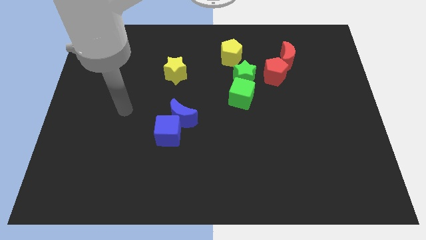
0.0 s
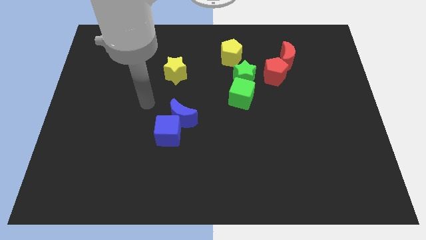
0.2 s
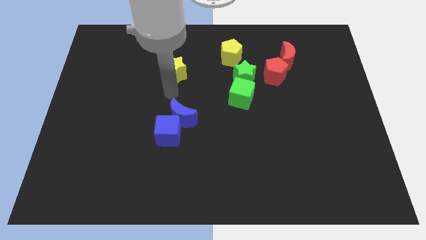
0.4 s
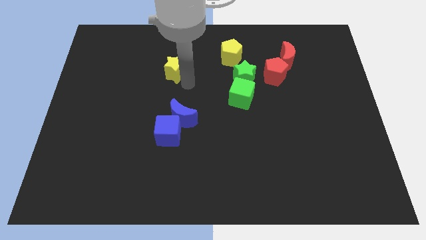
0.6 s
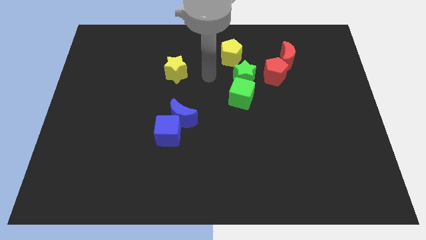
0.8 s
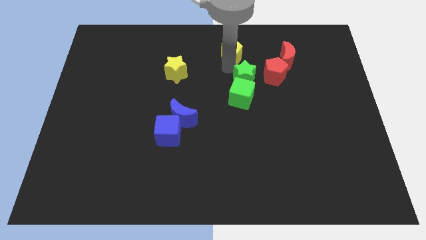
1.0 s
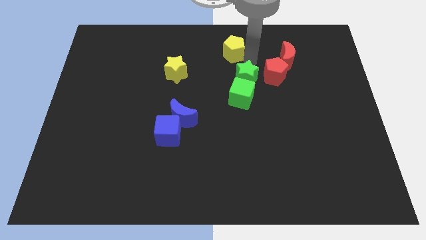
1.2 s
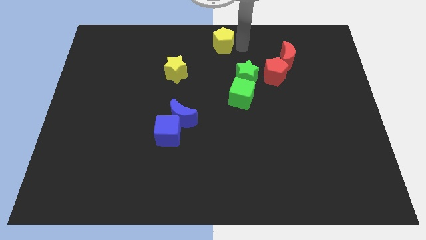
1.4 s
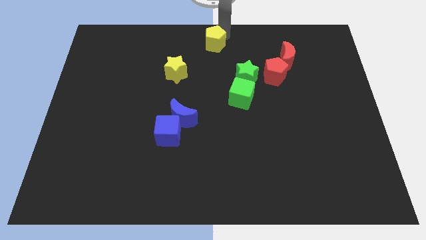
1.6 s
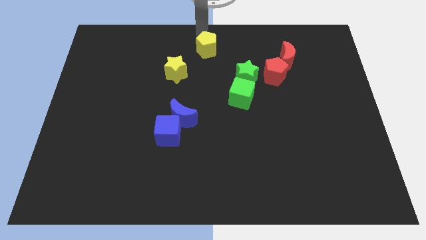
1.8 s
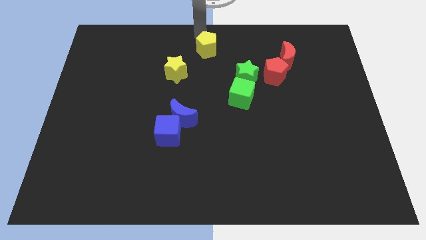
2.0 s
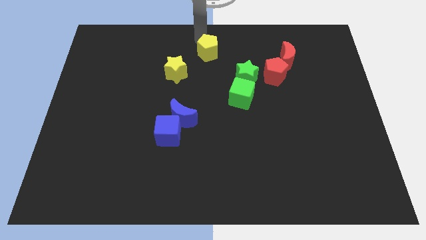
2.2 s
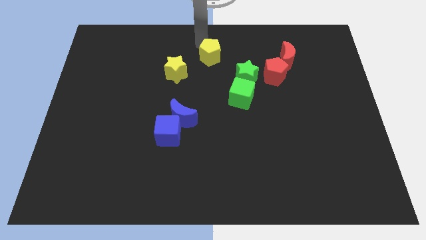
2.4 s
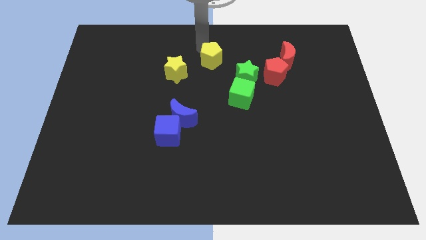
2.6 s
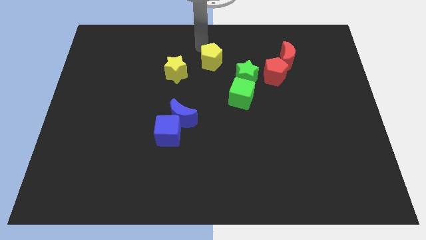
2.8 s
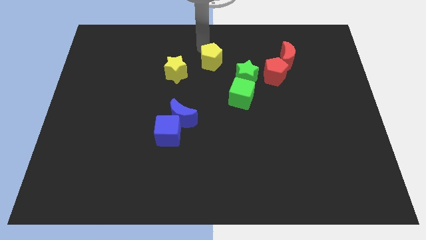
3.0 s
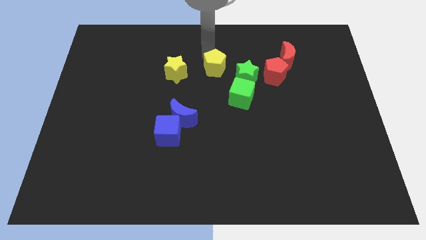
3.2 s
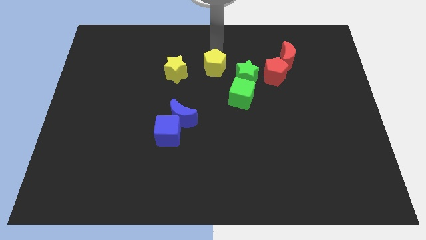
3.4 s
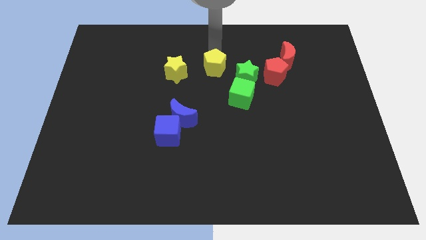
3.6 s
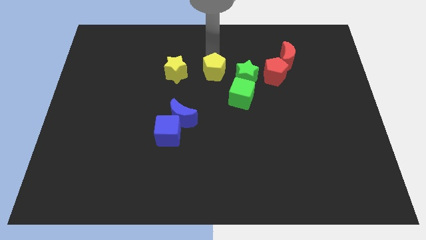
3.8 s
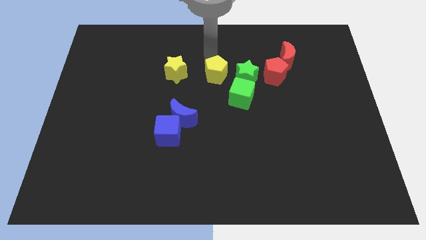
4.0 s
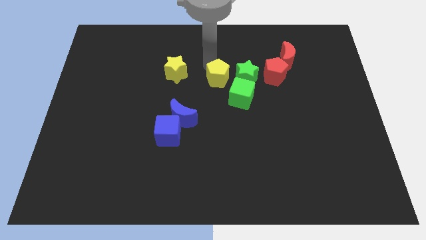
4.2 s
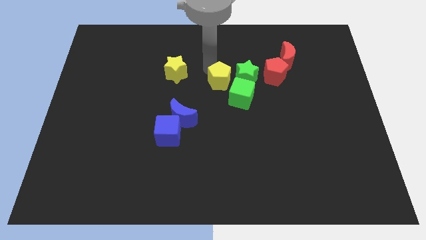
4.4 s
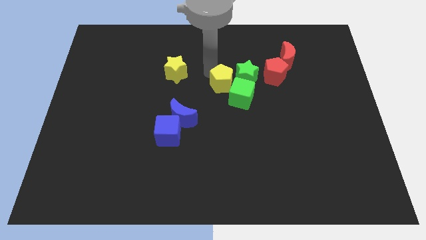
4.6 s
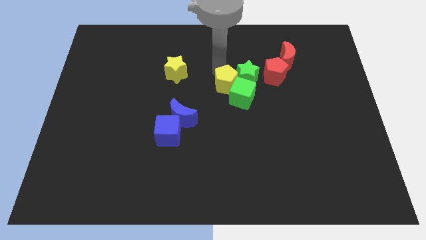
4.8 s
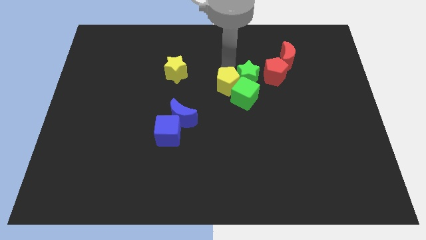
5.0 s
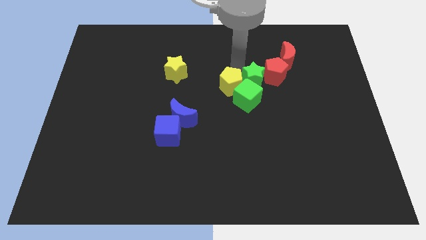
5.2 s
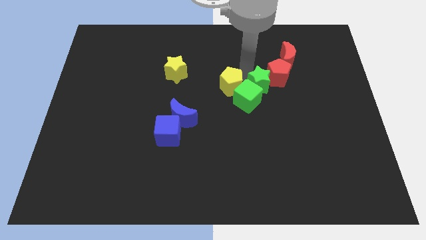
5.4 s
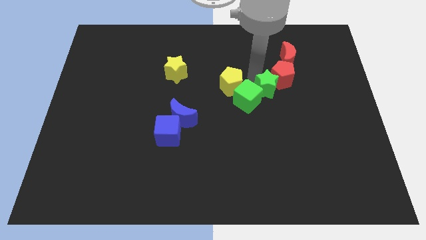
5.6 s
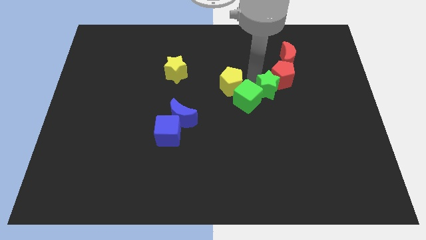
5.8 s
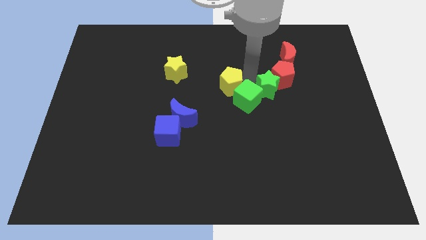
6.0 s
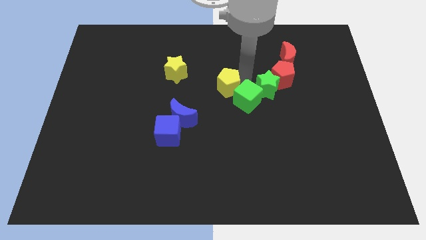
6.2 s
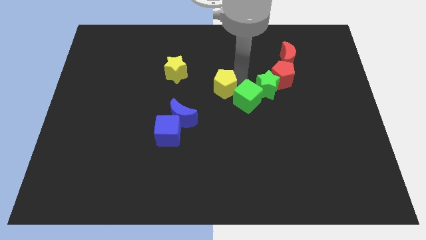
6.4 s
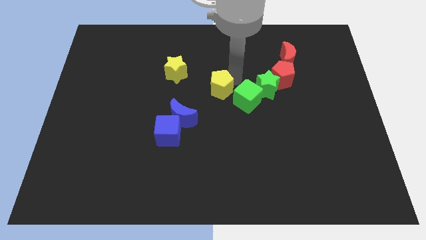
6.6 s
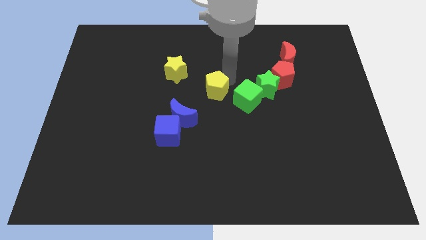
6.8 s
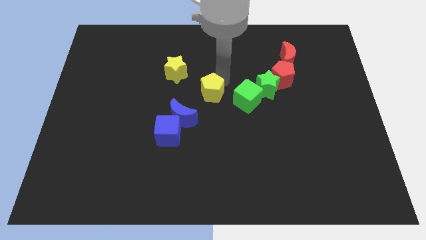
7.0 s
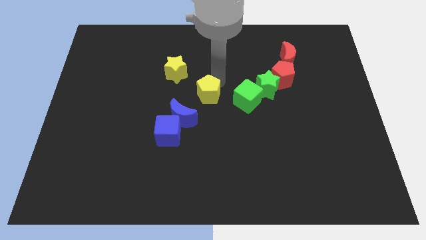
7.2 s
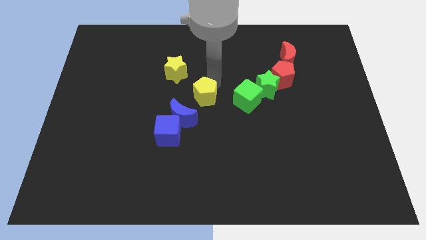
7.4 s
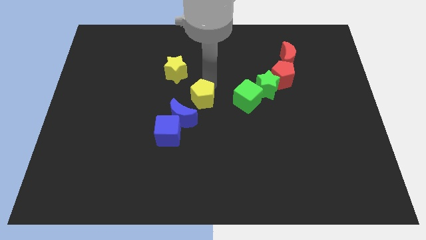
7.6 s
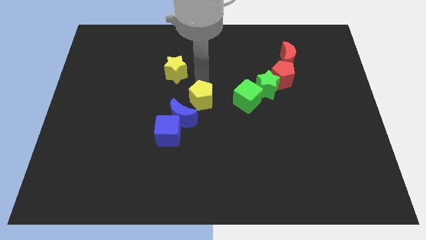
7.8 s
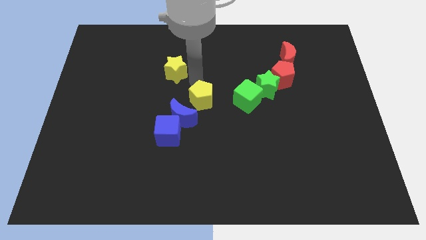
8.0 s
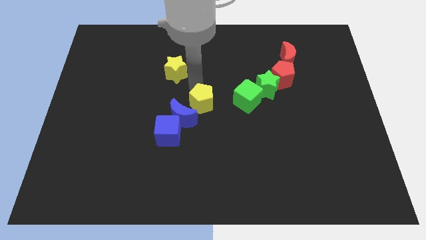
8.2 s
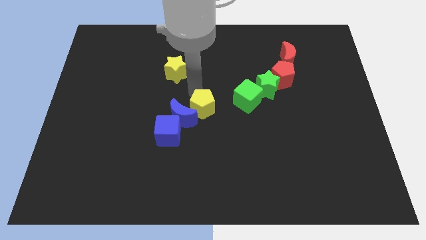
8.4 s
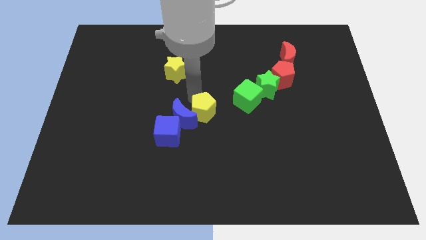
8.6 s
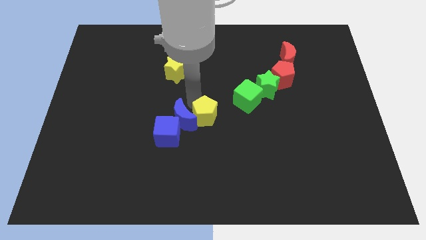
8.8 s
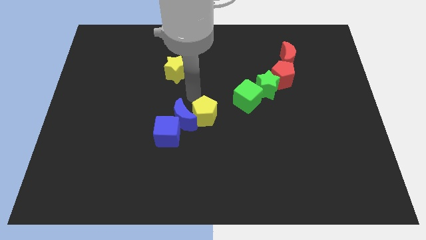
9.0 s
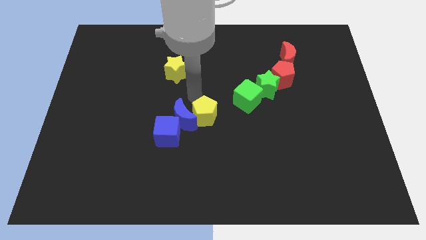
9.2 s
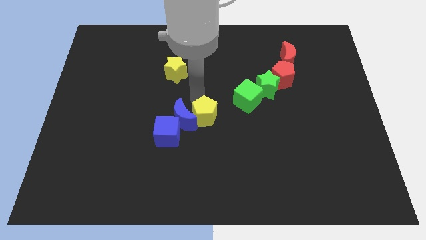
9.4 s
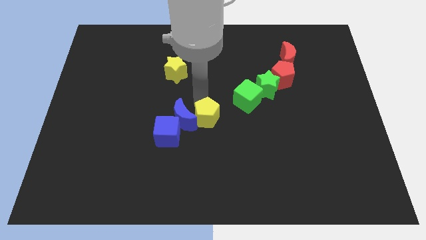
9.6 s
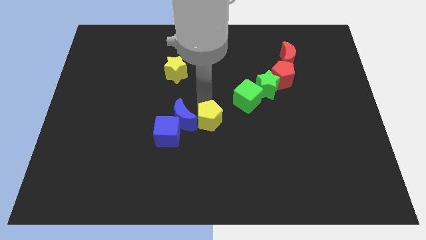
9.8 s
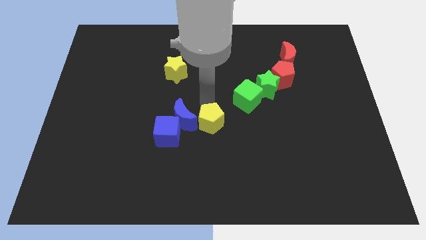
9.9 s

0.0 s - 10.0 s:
move the yellow pentagon downwards

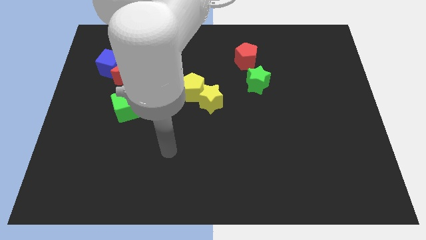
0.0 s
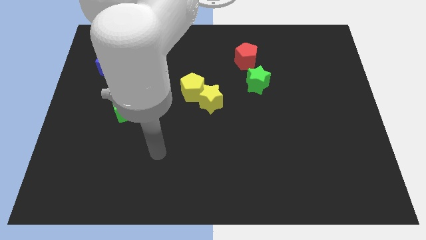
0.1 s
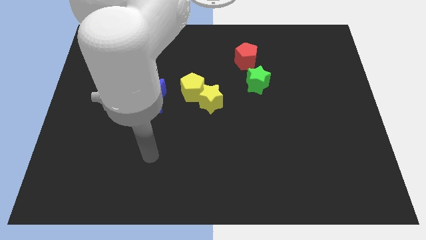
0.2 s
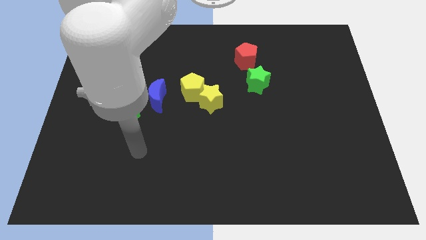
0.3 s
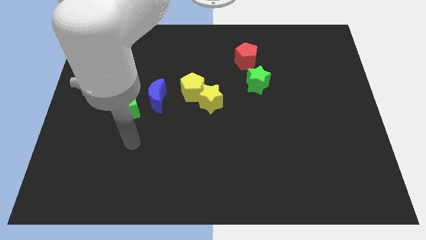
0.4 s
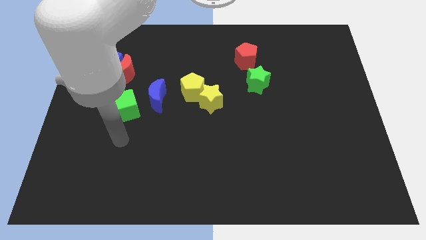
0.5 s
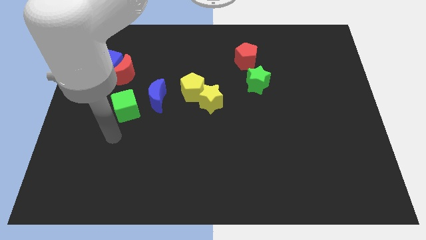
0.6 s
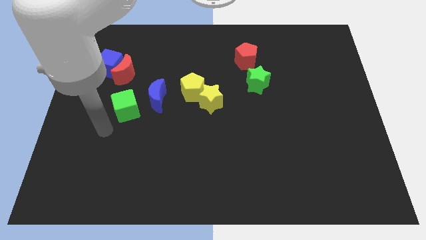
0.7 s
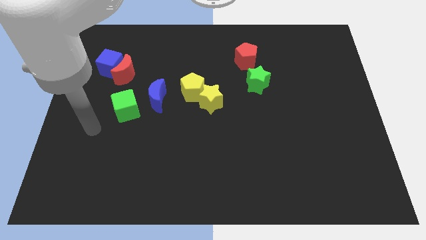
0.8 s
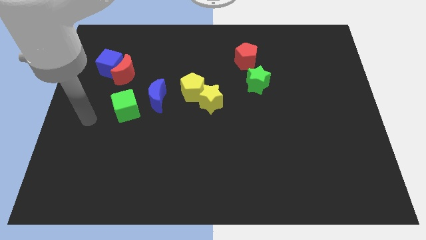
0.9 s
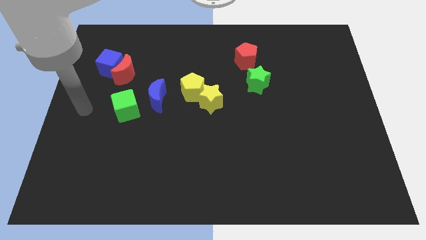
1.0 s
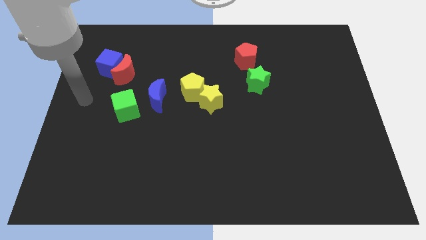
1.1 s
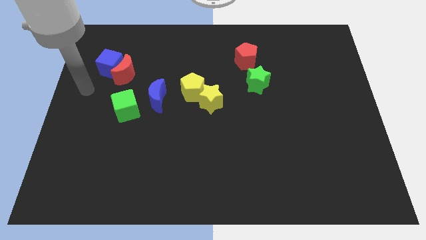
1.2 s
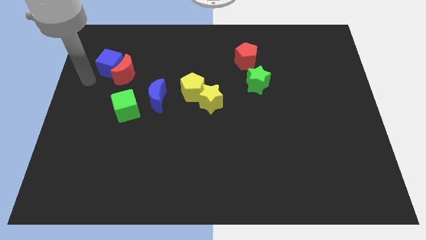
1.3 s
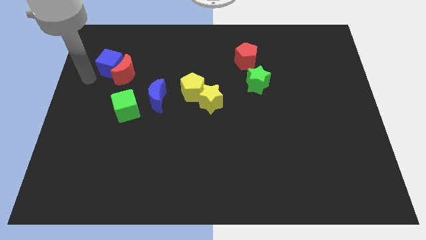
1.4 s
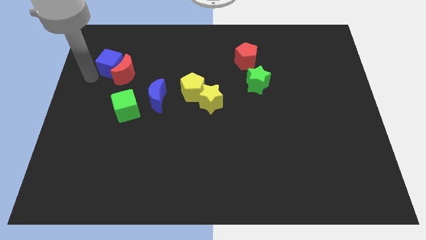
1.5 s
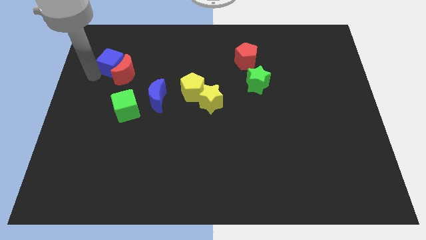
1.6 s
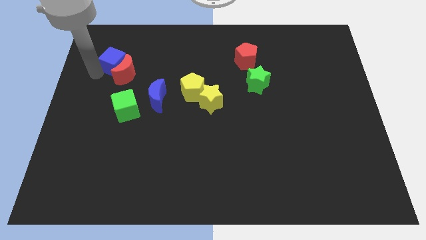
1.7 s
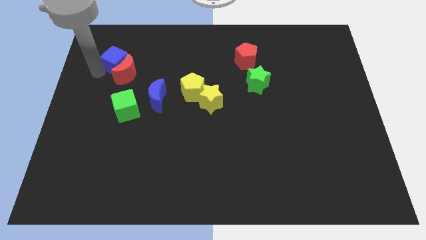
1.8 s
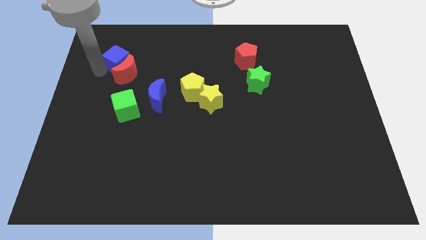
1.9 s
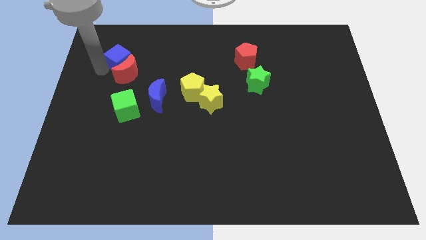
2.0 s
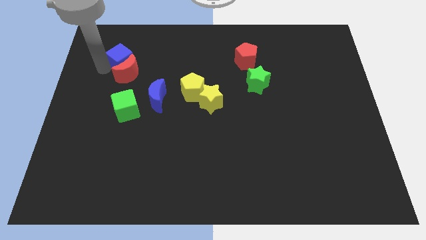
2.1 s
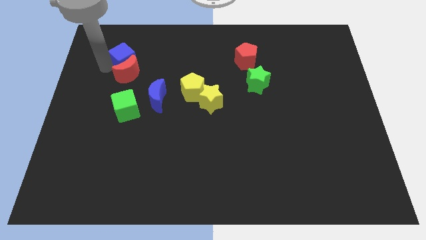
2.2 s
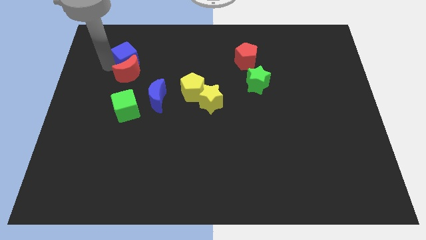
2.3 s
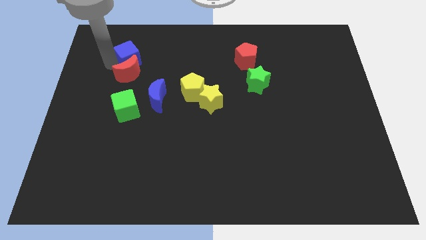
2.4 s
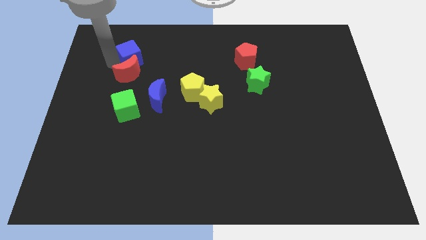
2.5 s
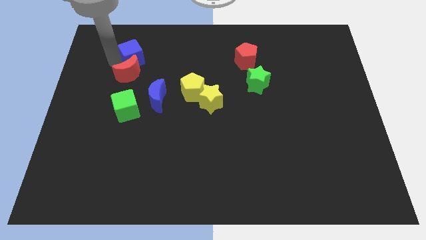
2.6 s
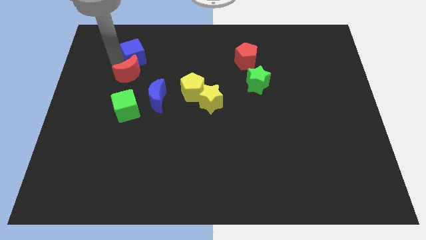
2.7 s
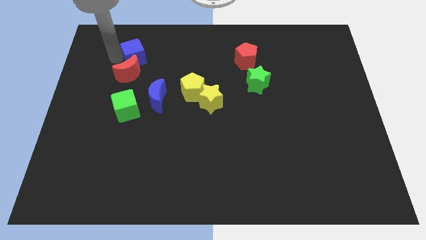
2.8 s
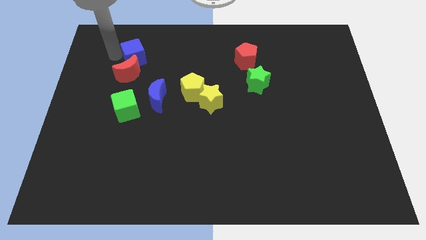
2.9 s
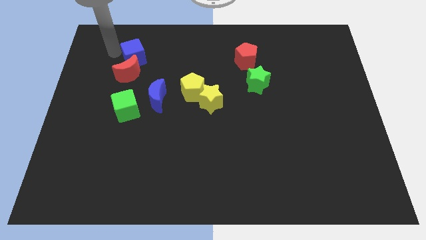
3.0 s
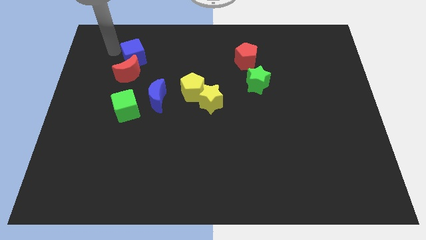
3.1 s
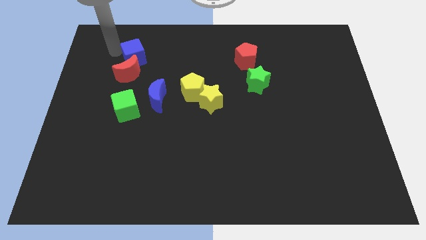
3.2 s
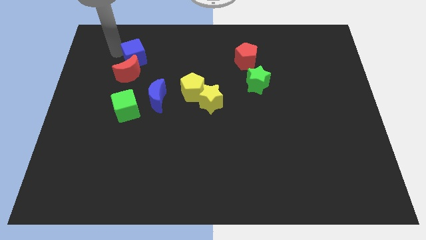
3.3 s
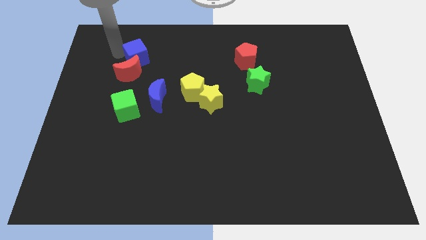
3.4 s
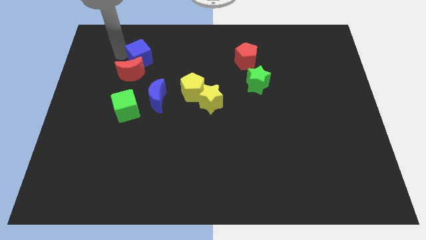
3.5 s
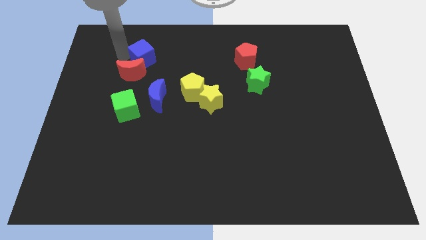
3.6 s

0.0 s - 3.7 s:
move the blue cube right a little bit
